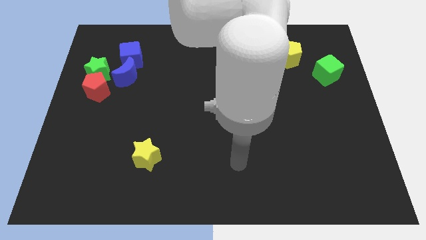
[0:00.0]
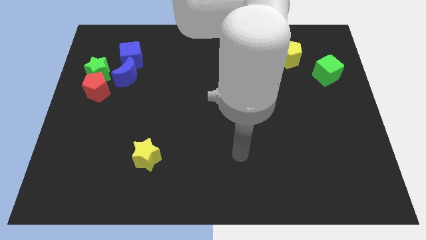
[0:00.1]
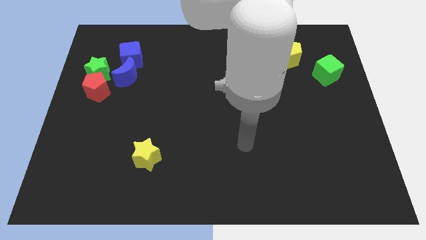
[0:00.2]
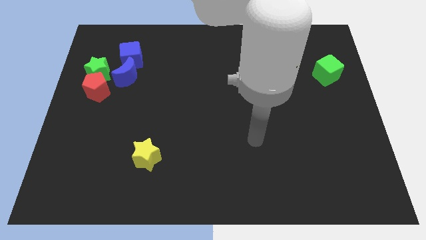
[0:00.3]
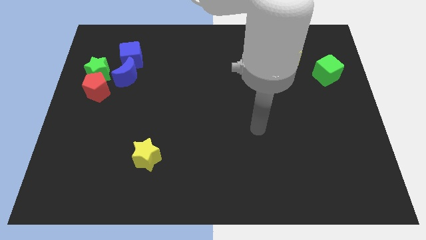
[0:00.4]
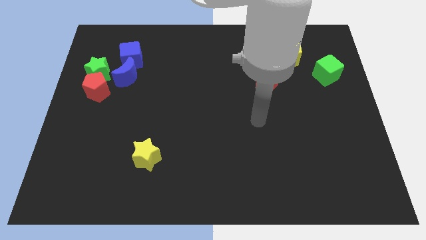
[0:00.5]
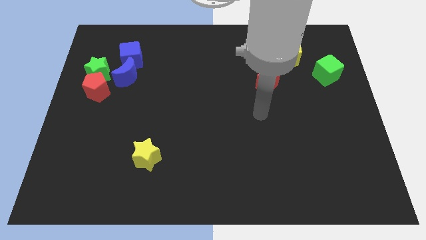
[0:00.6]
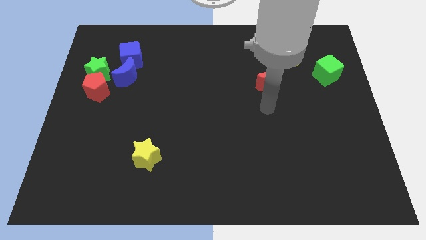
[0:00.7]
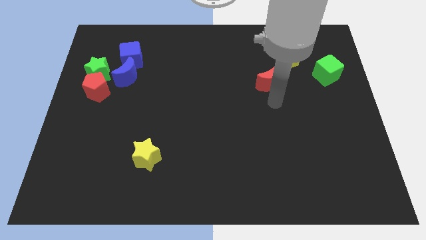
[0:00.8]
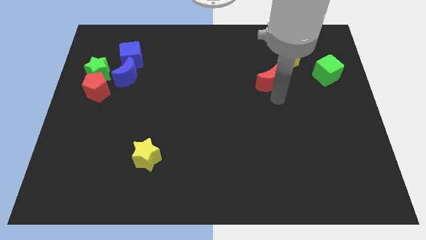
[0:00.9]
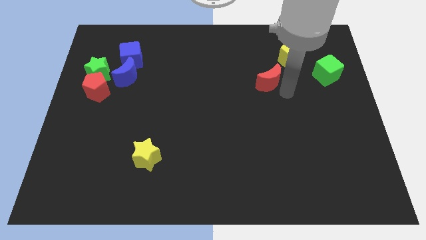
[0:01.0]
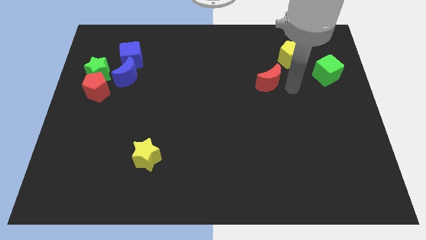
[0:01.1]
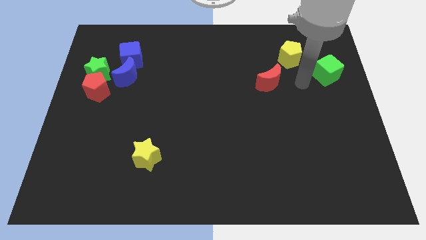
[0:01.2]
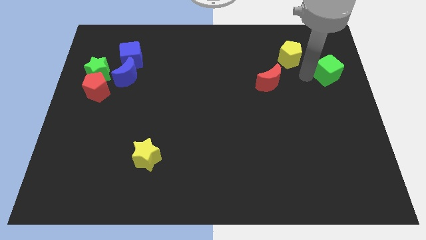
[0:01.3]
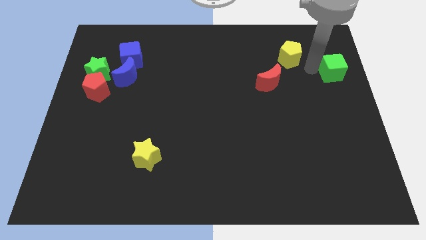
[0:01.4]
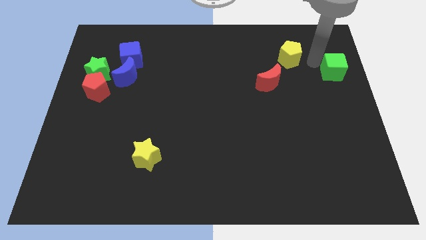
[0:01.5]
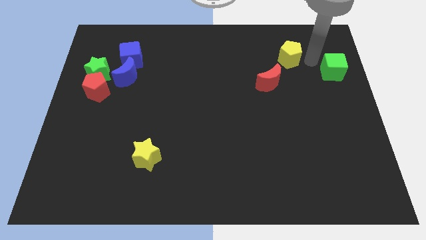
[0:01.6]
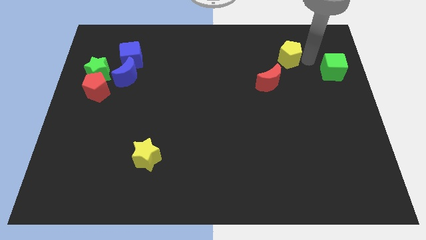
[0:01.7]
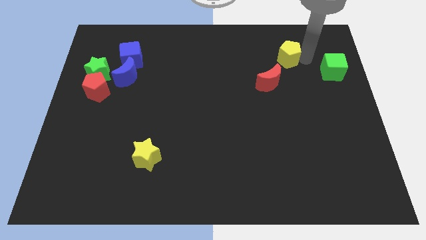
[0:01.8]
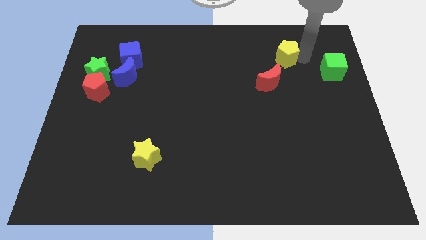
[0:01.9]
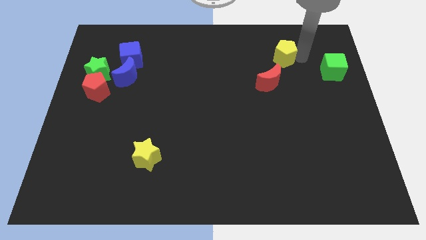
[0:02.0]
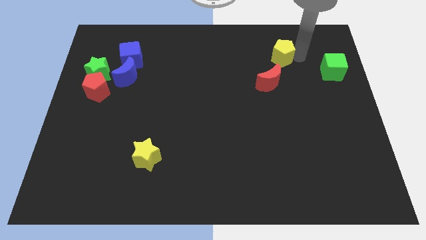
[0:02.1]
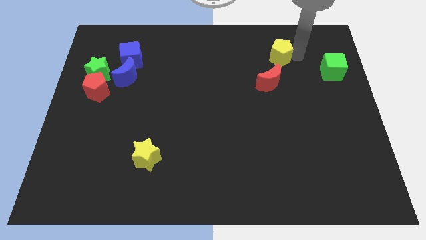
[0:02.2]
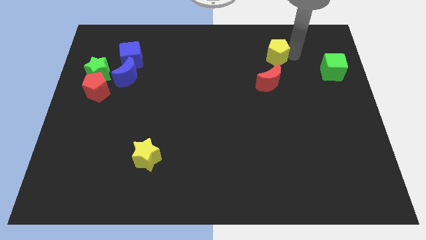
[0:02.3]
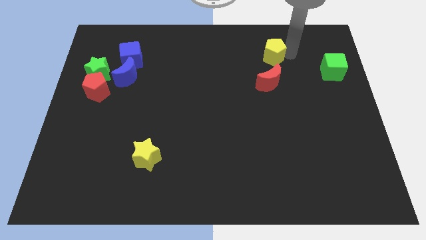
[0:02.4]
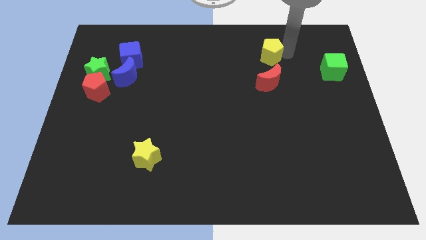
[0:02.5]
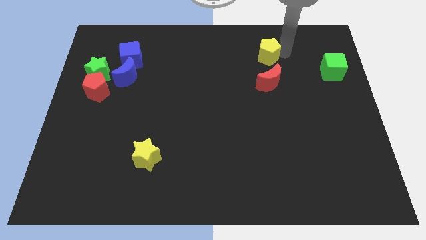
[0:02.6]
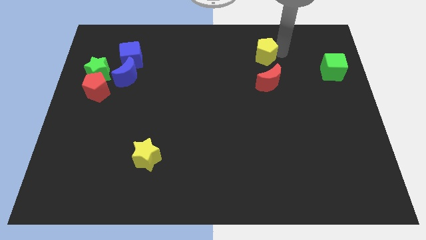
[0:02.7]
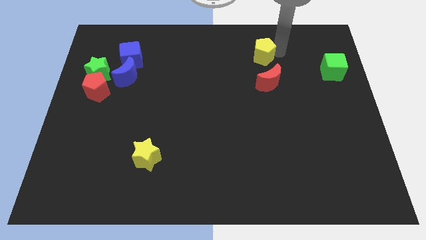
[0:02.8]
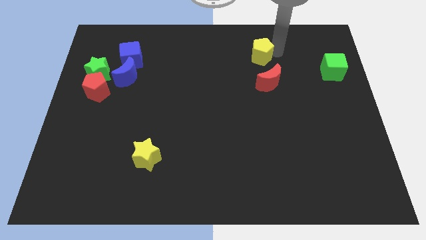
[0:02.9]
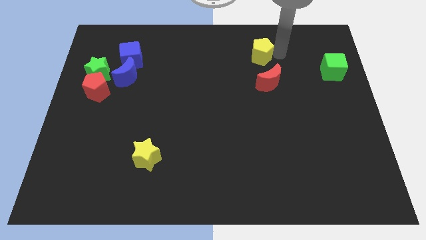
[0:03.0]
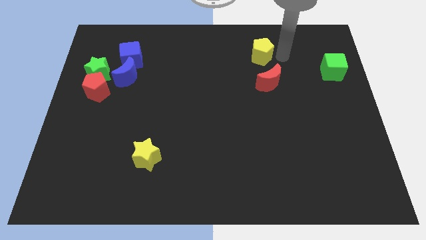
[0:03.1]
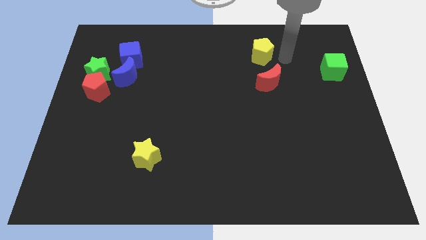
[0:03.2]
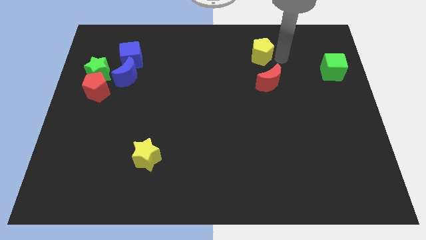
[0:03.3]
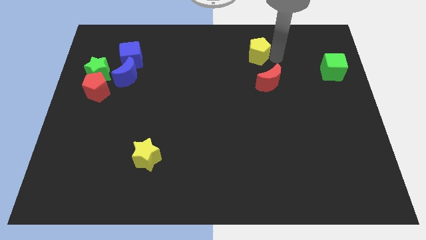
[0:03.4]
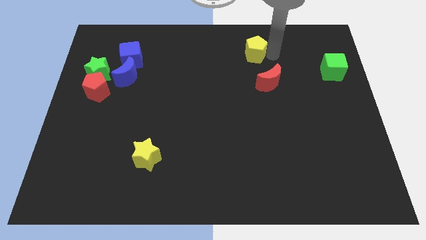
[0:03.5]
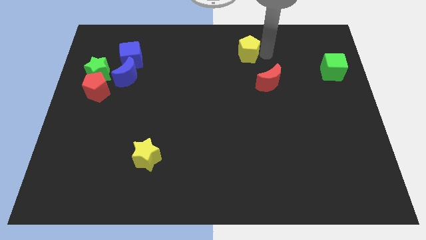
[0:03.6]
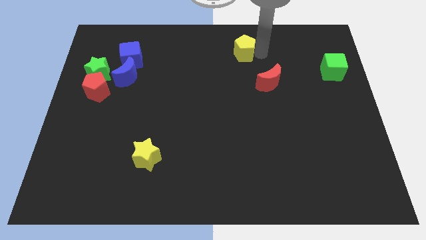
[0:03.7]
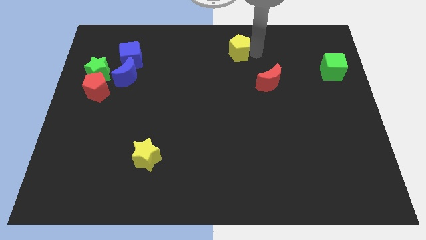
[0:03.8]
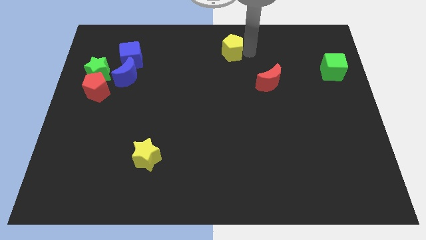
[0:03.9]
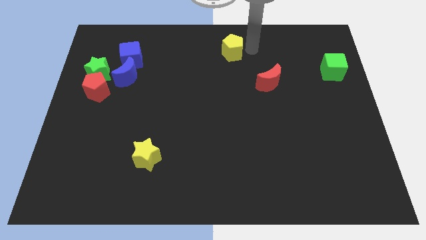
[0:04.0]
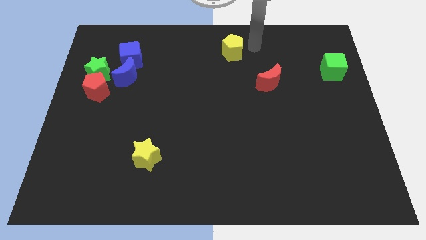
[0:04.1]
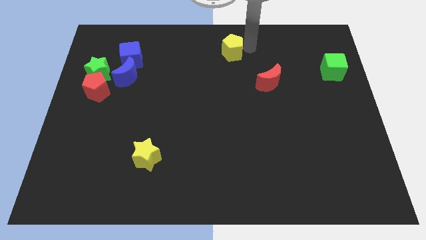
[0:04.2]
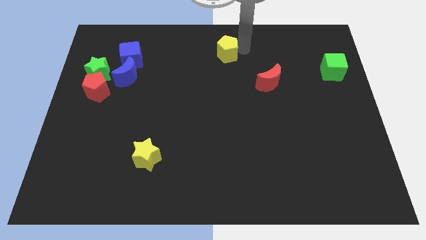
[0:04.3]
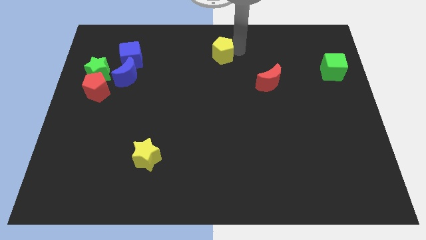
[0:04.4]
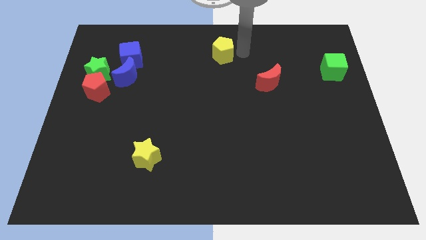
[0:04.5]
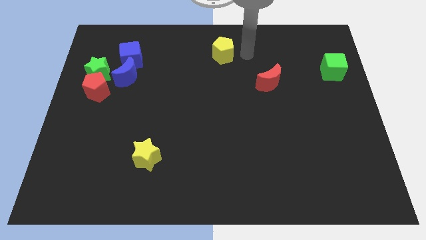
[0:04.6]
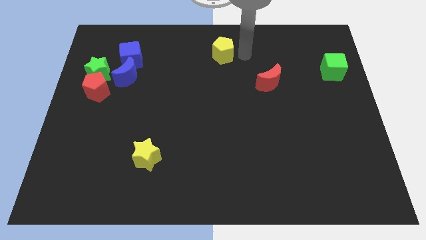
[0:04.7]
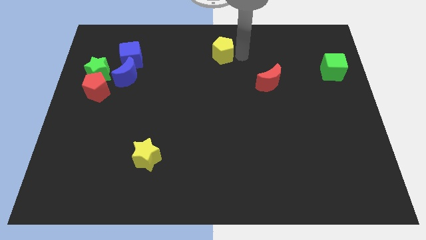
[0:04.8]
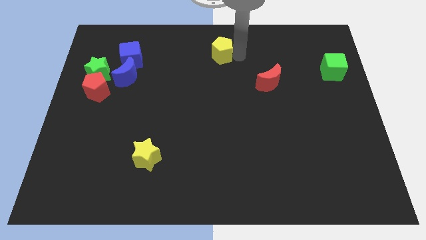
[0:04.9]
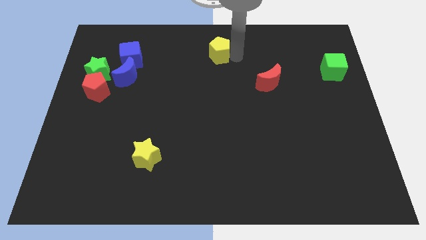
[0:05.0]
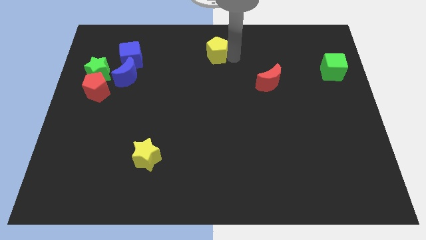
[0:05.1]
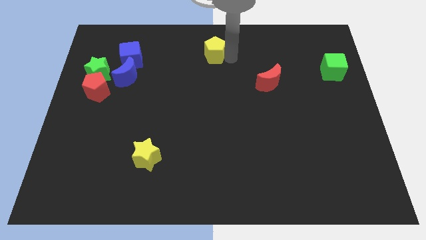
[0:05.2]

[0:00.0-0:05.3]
slide the yellow pentagon to the left

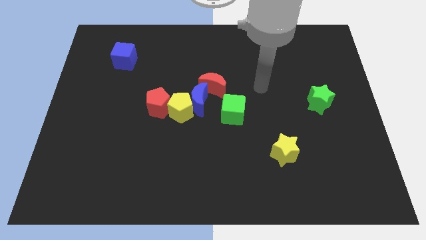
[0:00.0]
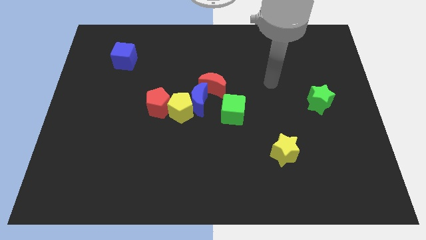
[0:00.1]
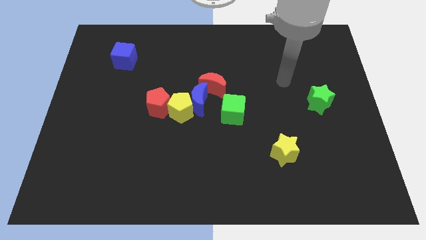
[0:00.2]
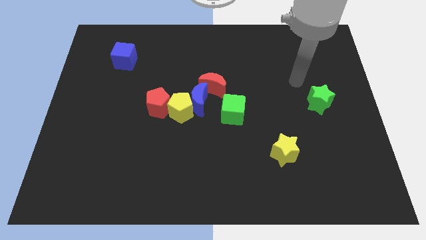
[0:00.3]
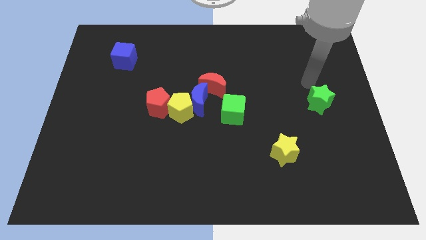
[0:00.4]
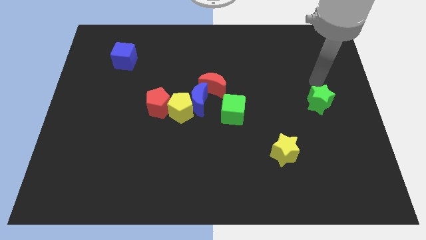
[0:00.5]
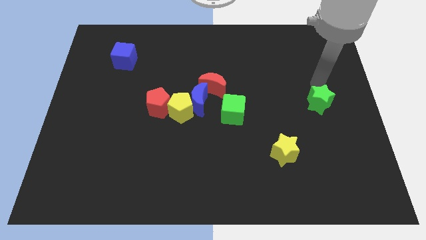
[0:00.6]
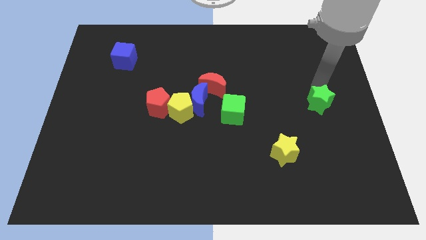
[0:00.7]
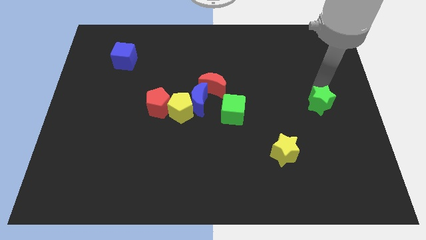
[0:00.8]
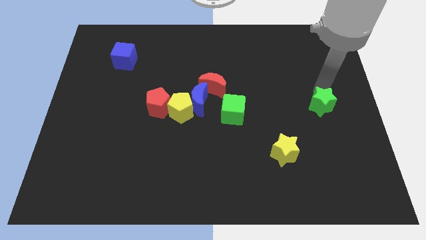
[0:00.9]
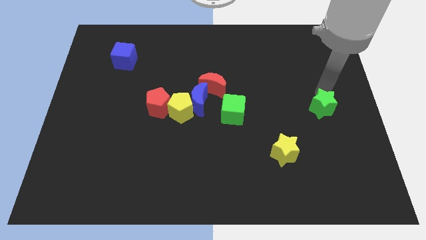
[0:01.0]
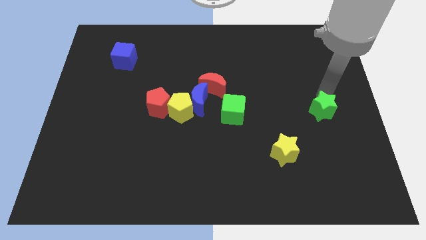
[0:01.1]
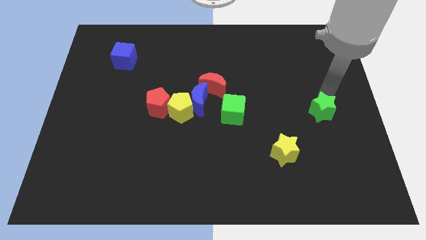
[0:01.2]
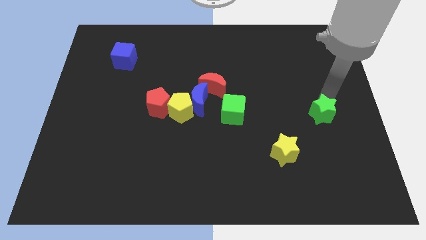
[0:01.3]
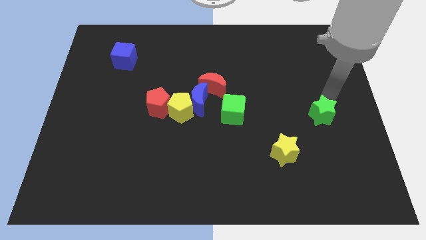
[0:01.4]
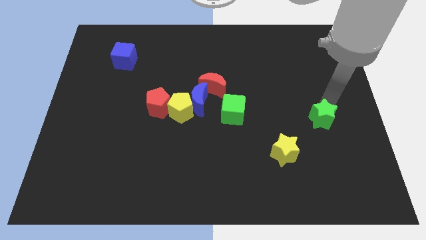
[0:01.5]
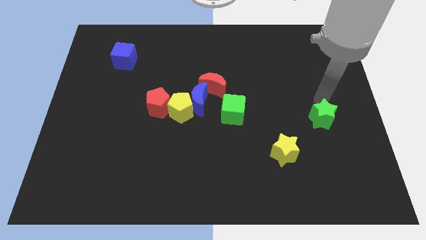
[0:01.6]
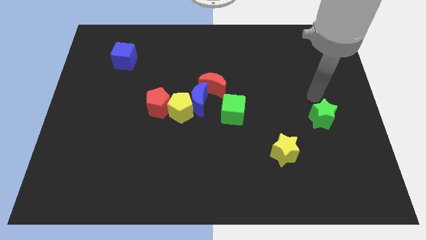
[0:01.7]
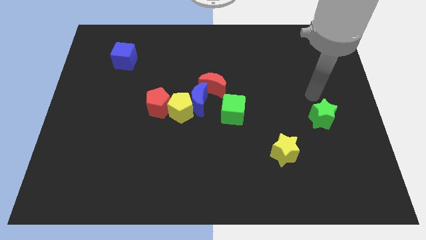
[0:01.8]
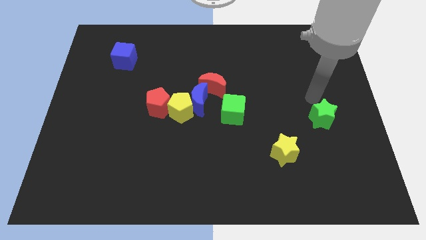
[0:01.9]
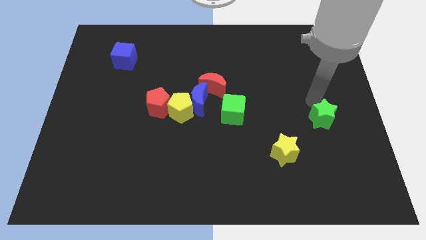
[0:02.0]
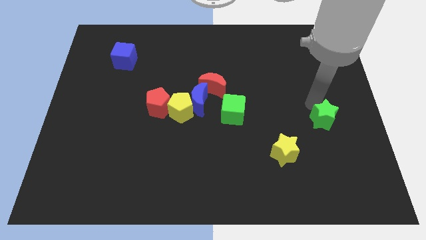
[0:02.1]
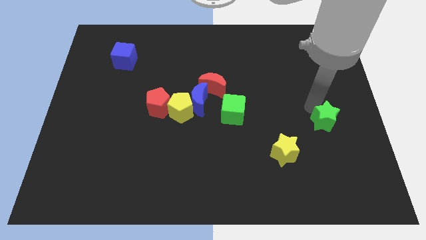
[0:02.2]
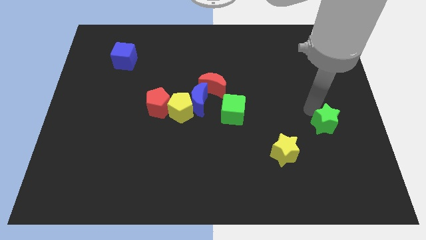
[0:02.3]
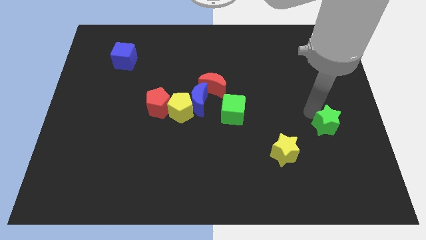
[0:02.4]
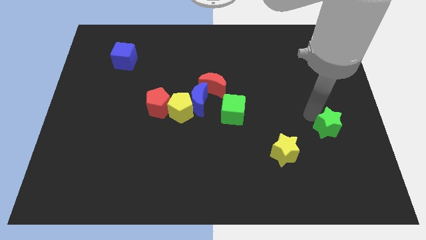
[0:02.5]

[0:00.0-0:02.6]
push the green star a little down
